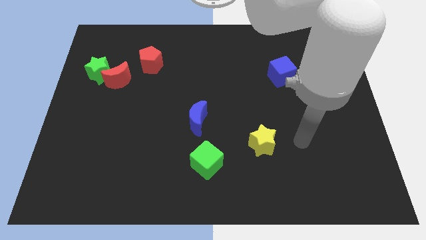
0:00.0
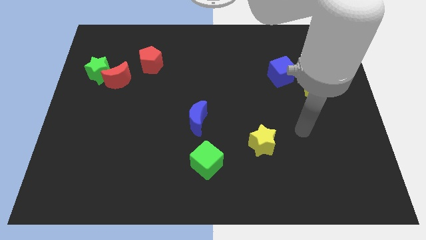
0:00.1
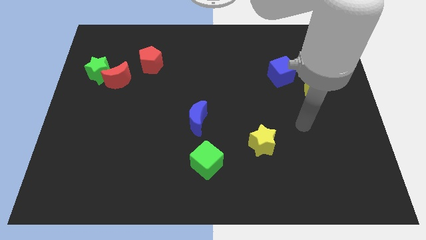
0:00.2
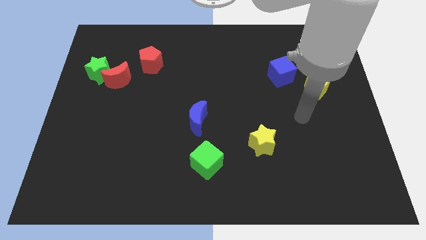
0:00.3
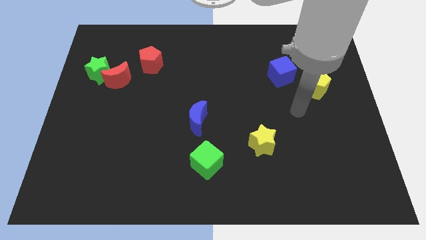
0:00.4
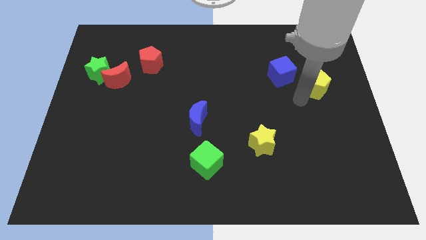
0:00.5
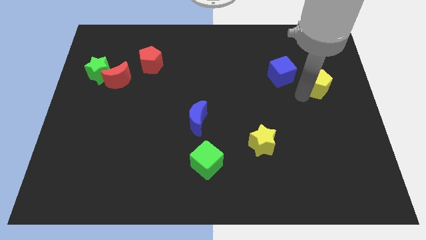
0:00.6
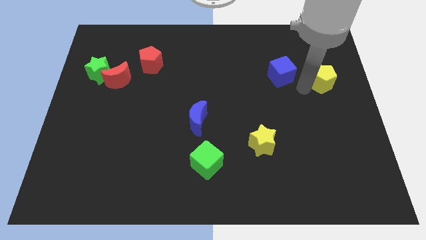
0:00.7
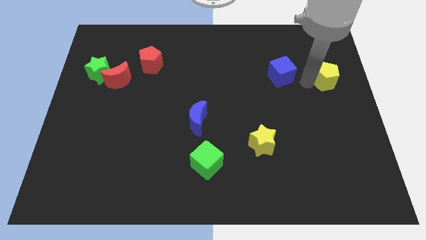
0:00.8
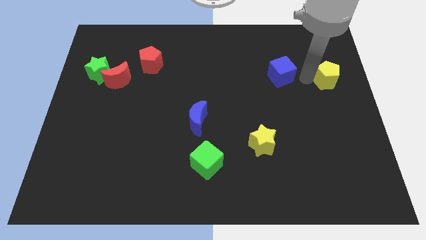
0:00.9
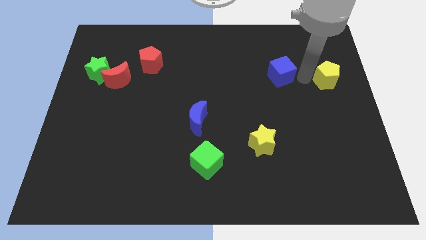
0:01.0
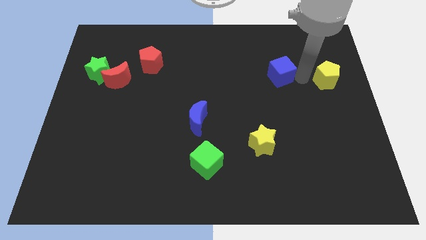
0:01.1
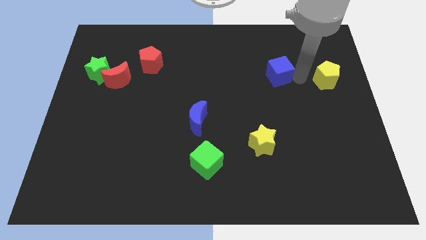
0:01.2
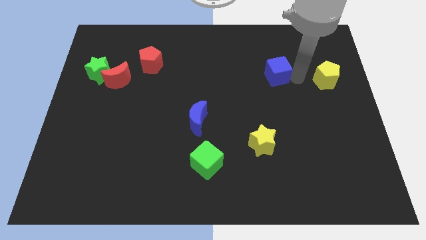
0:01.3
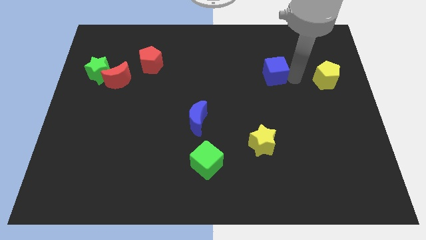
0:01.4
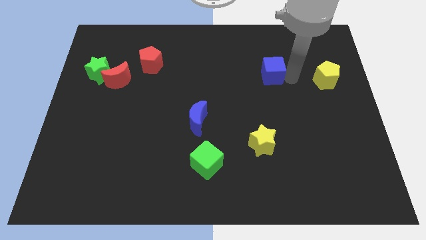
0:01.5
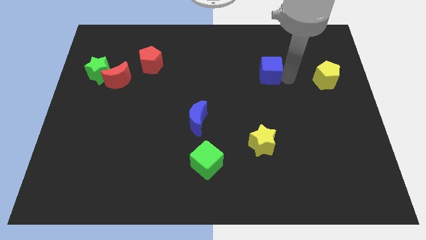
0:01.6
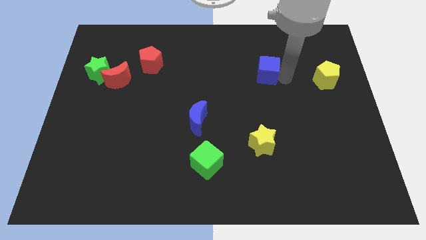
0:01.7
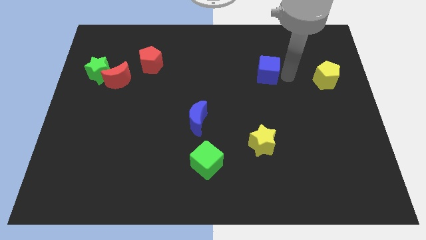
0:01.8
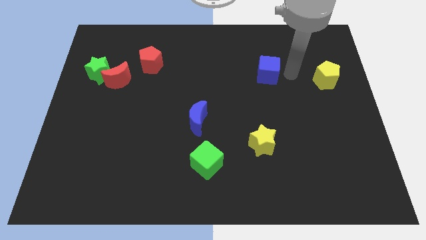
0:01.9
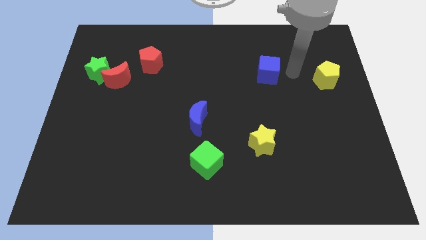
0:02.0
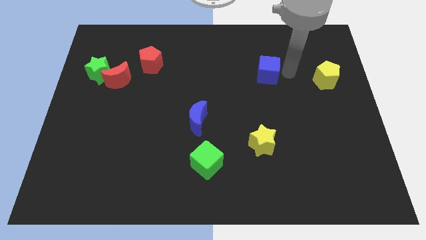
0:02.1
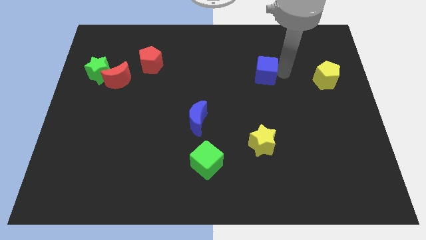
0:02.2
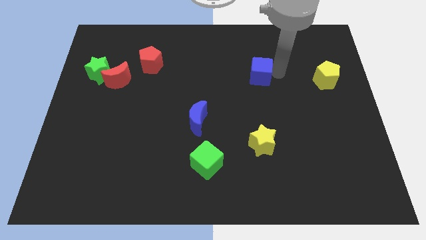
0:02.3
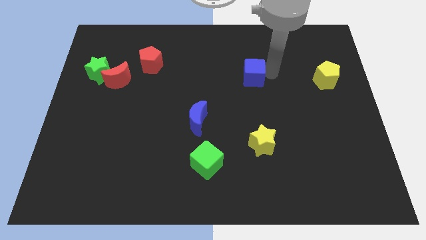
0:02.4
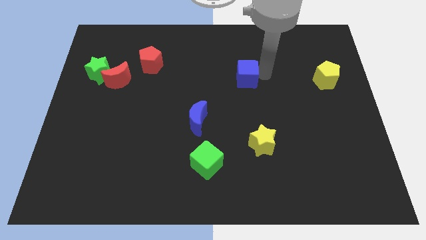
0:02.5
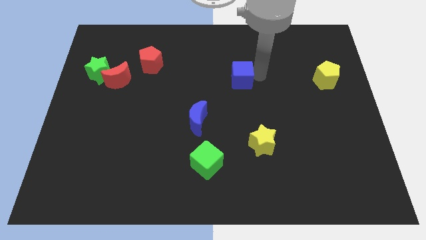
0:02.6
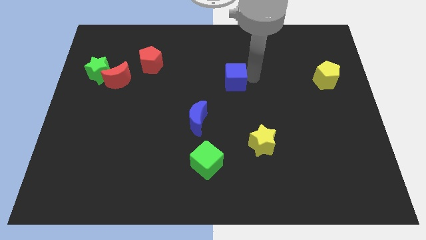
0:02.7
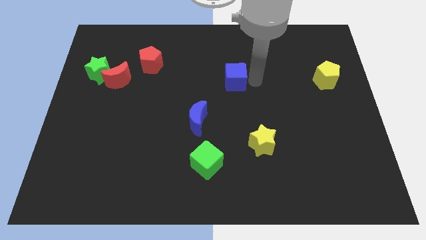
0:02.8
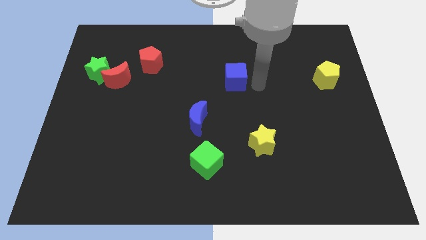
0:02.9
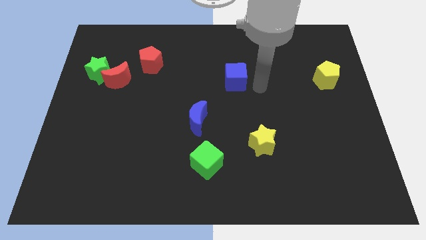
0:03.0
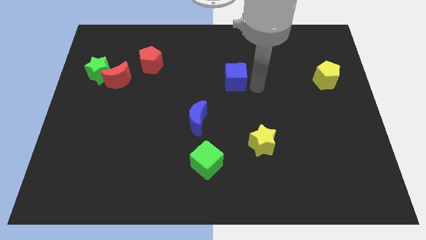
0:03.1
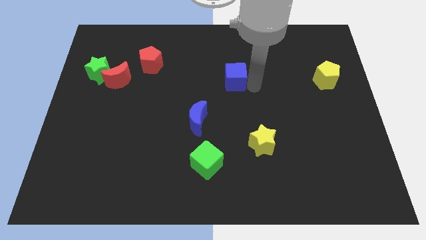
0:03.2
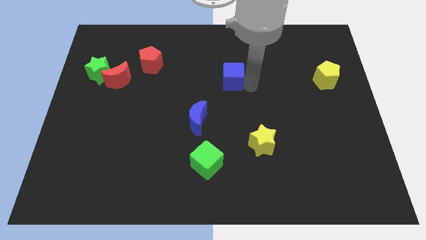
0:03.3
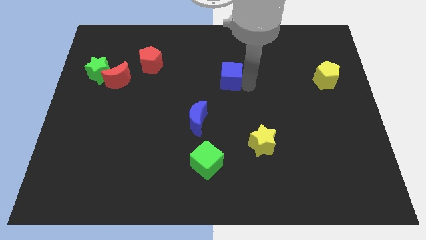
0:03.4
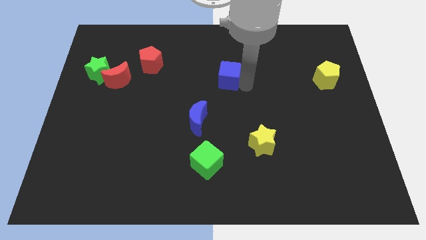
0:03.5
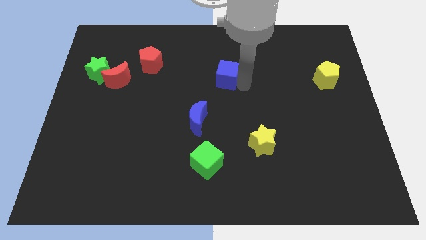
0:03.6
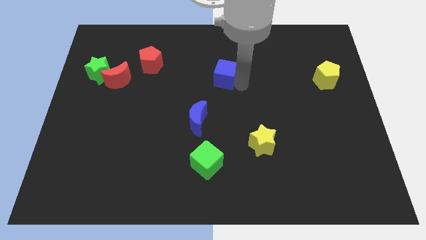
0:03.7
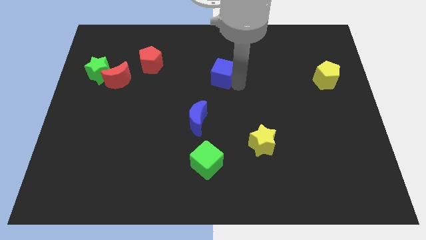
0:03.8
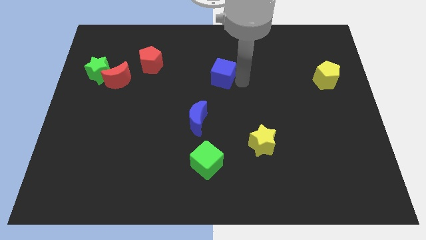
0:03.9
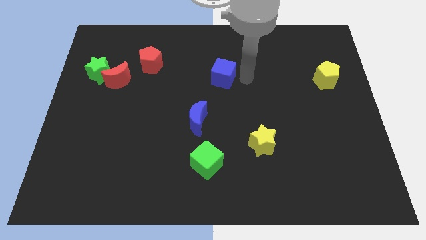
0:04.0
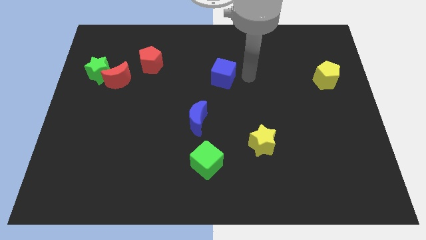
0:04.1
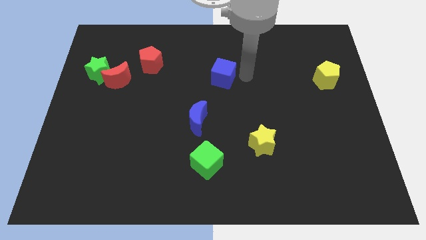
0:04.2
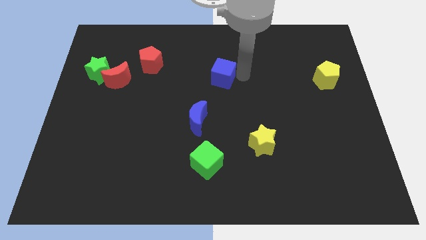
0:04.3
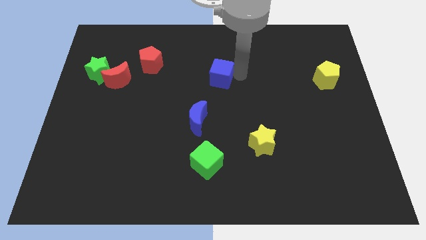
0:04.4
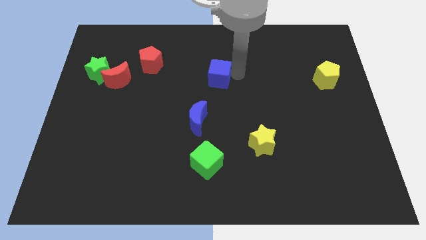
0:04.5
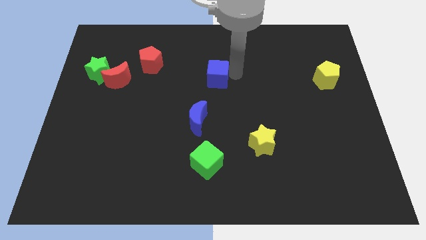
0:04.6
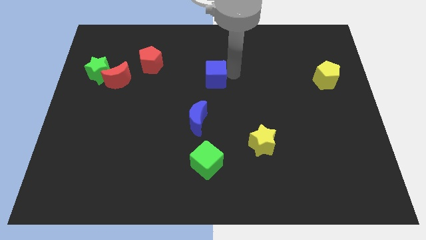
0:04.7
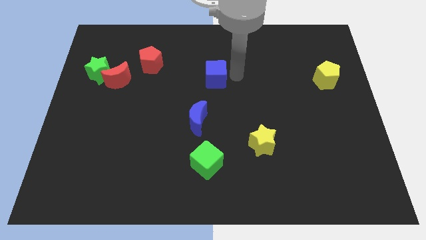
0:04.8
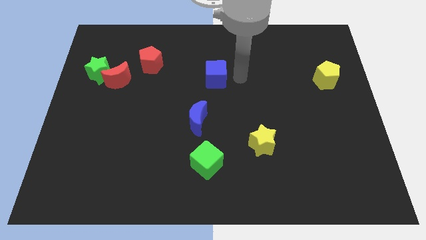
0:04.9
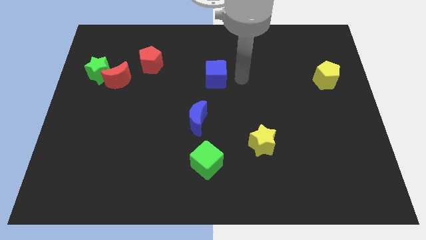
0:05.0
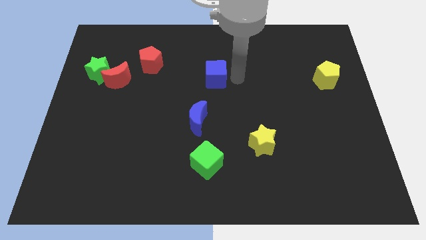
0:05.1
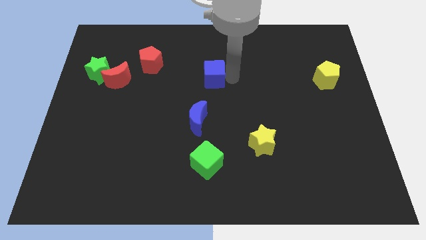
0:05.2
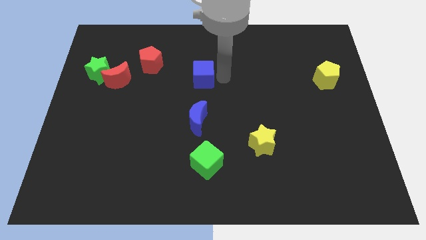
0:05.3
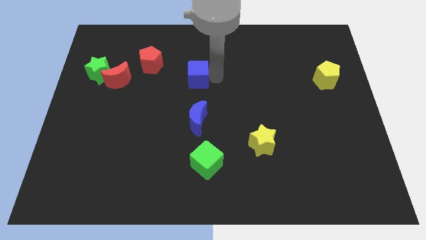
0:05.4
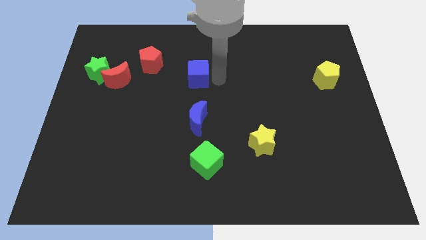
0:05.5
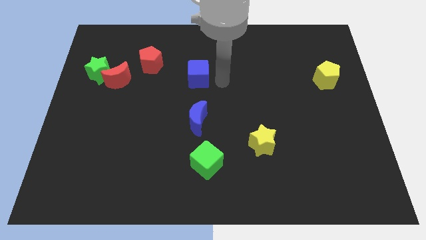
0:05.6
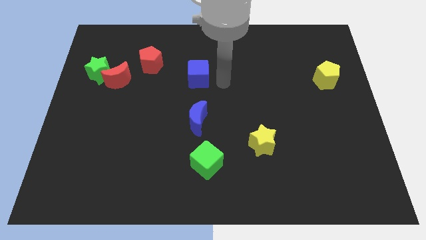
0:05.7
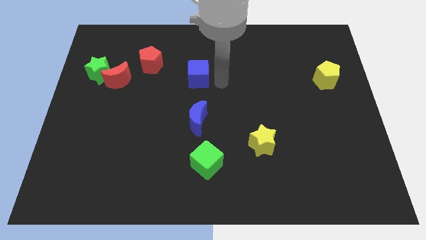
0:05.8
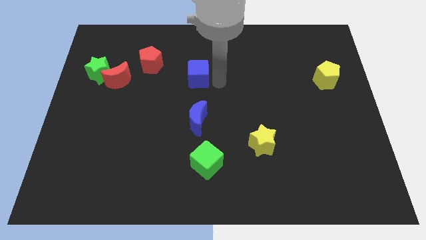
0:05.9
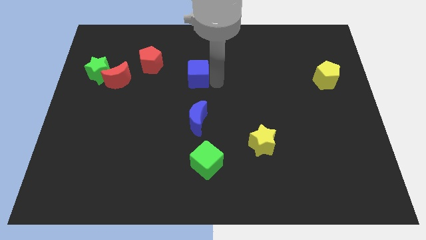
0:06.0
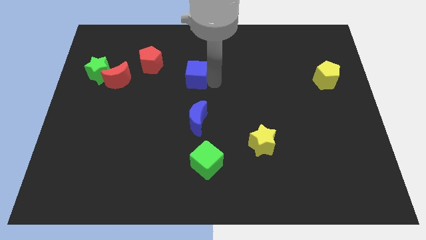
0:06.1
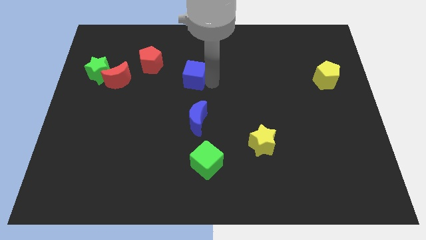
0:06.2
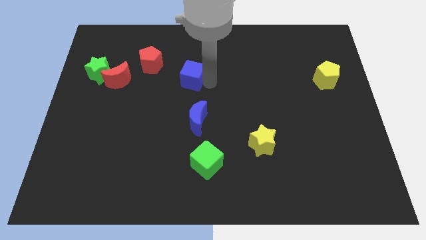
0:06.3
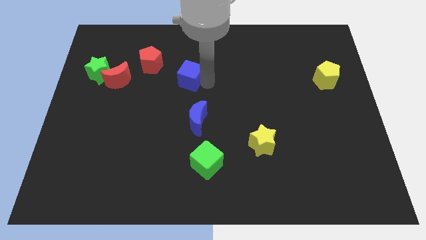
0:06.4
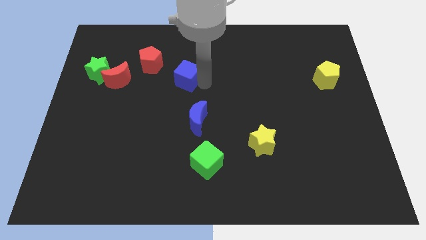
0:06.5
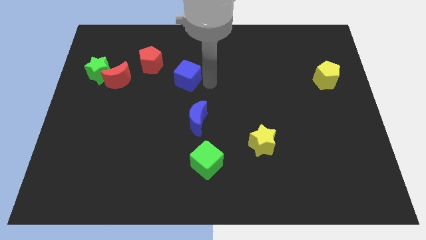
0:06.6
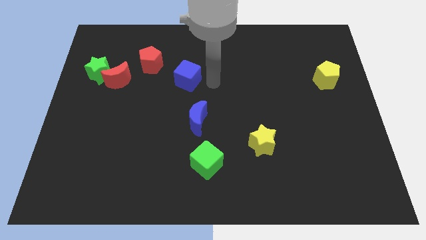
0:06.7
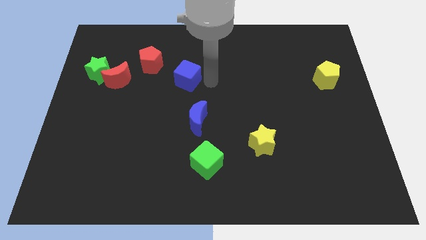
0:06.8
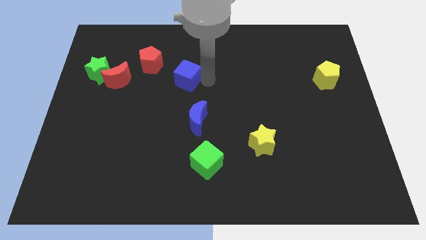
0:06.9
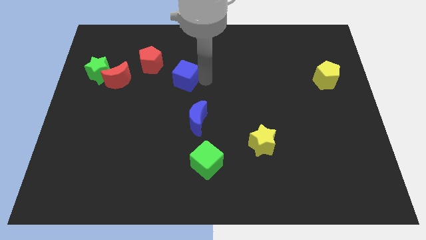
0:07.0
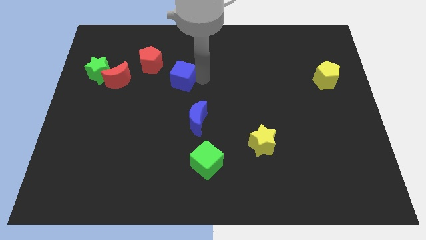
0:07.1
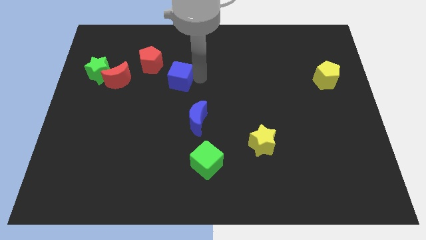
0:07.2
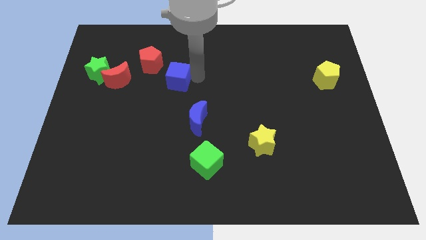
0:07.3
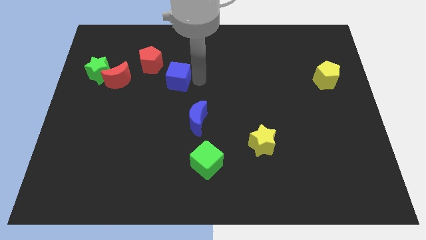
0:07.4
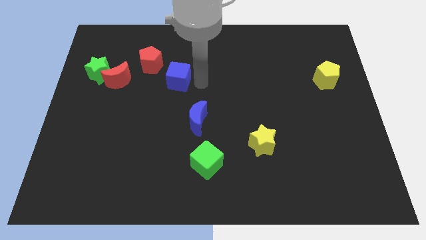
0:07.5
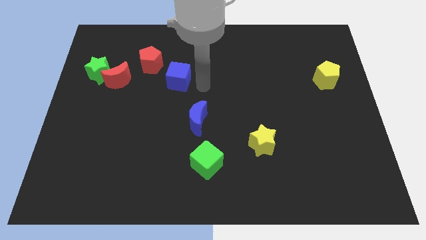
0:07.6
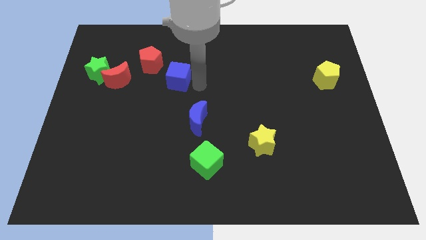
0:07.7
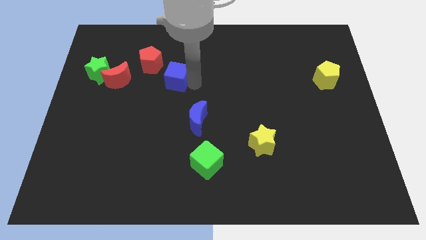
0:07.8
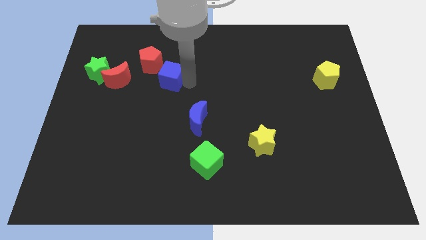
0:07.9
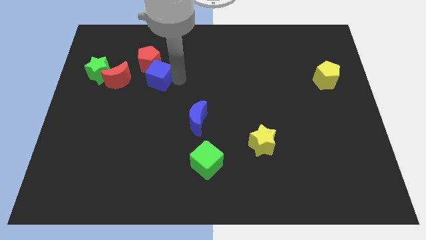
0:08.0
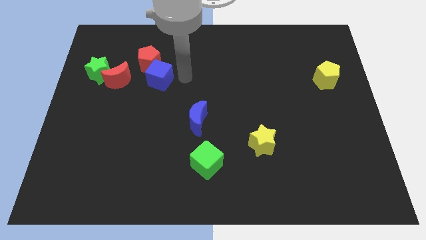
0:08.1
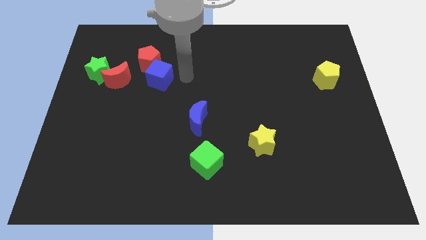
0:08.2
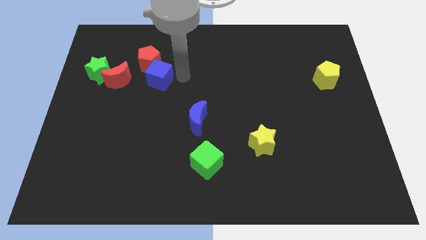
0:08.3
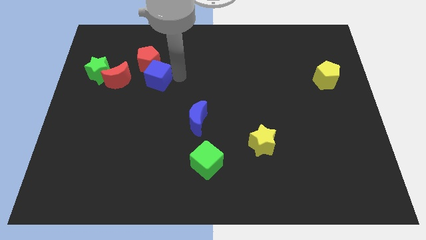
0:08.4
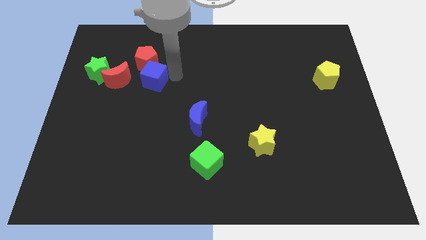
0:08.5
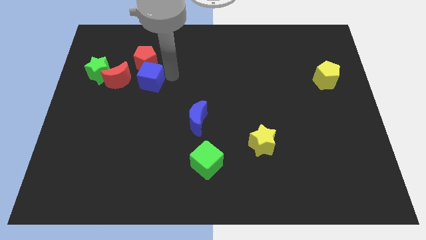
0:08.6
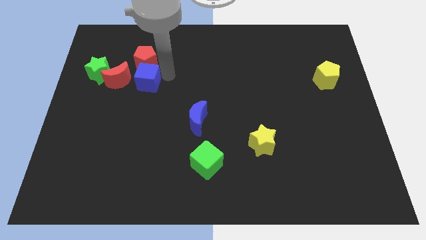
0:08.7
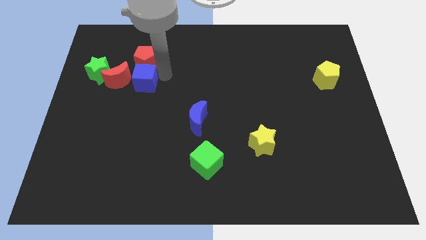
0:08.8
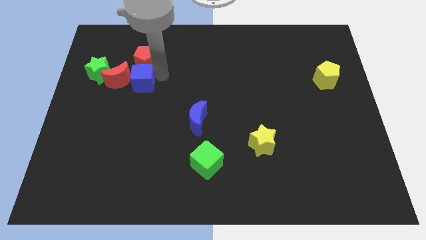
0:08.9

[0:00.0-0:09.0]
push the blue cube to the red moon
